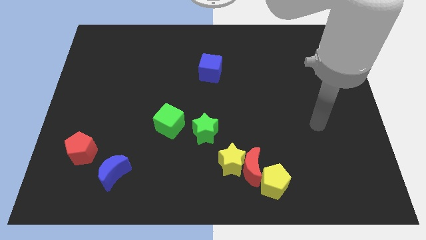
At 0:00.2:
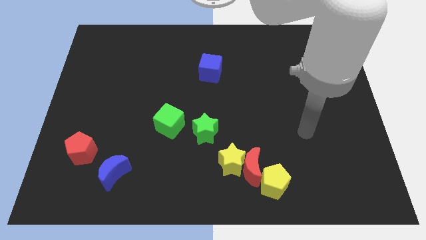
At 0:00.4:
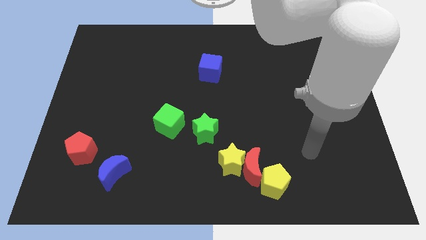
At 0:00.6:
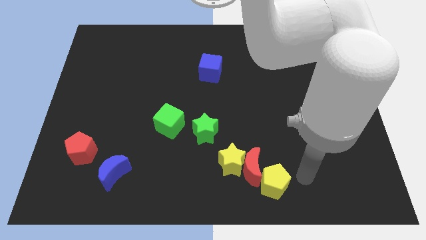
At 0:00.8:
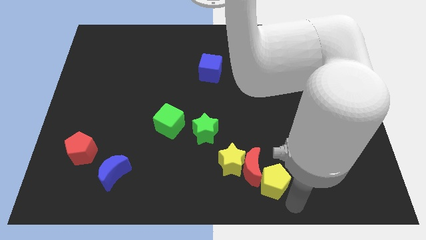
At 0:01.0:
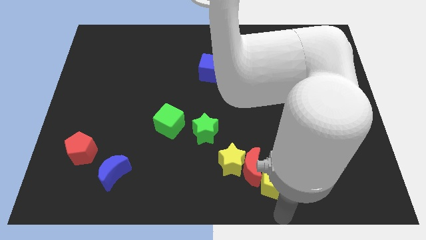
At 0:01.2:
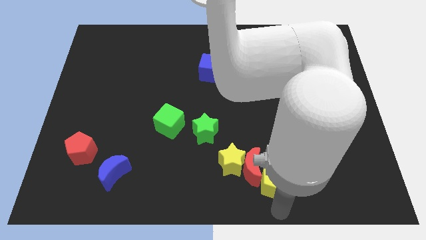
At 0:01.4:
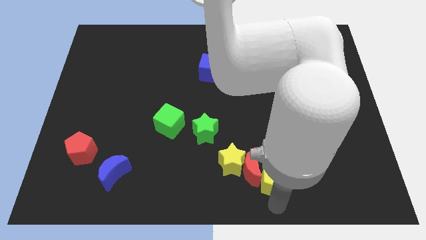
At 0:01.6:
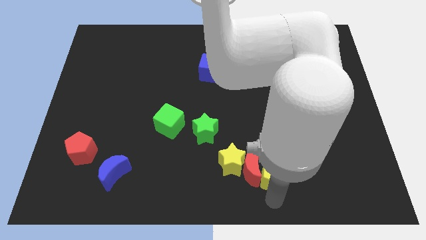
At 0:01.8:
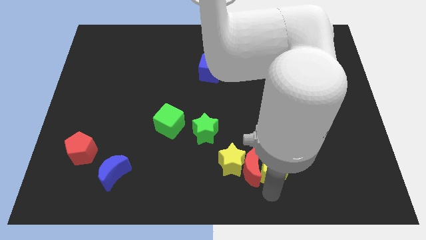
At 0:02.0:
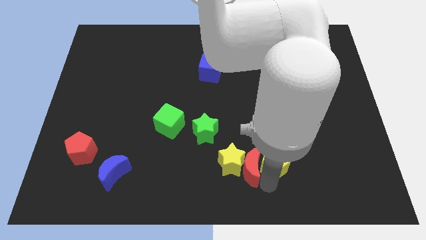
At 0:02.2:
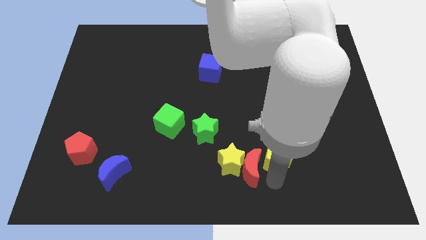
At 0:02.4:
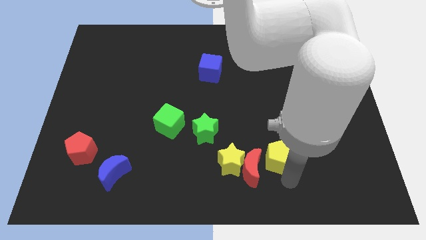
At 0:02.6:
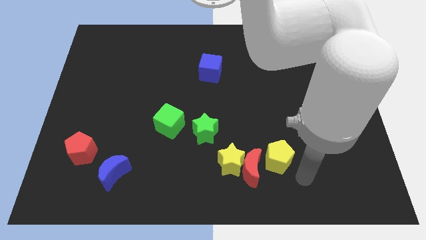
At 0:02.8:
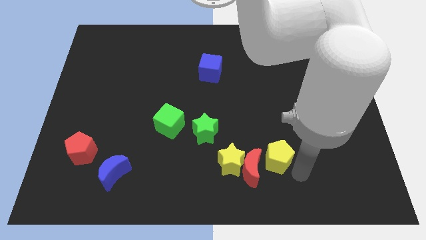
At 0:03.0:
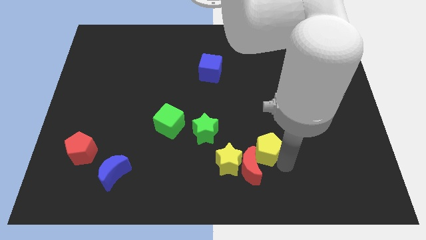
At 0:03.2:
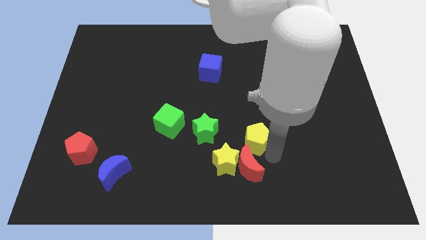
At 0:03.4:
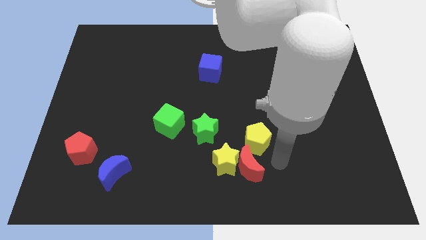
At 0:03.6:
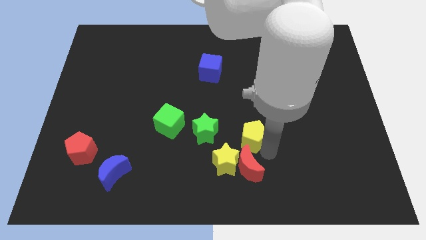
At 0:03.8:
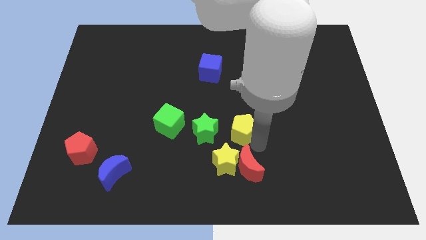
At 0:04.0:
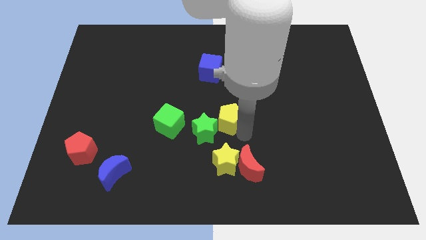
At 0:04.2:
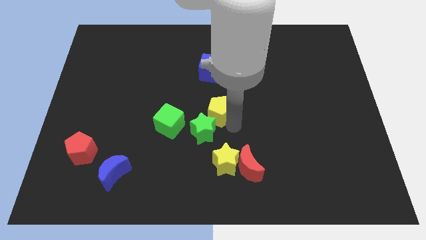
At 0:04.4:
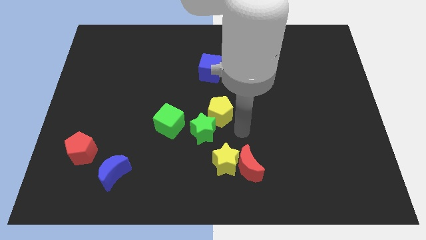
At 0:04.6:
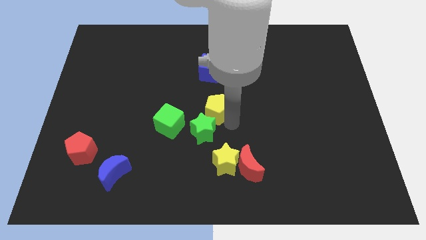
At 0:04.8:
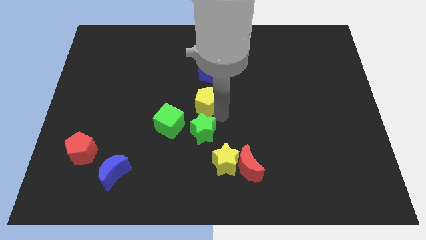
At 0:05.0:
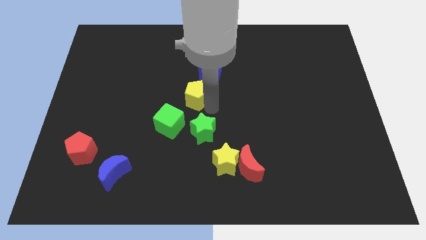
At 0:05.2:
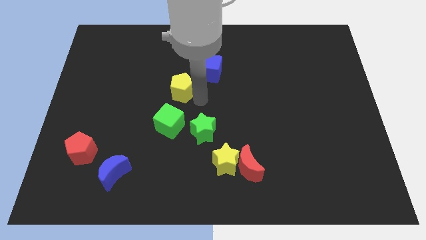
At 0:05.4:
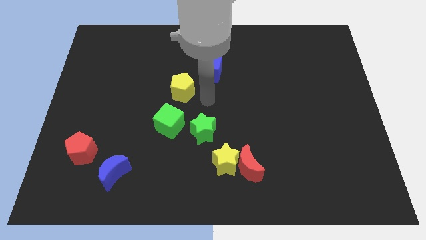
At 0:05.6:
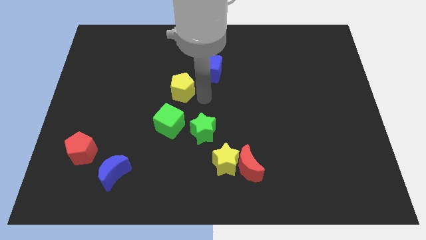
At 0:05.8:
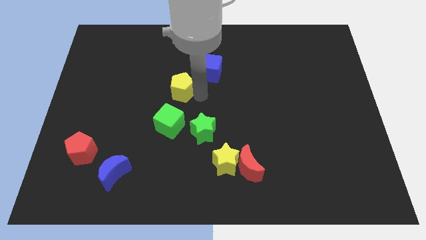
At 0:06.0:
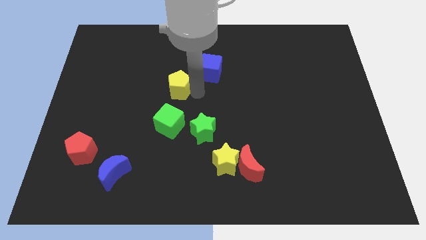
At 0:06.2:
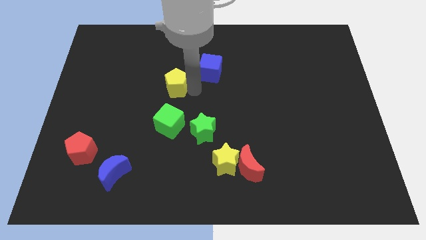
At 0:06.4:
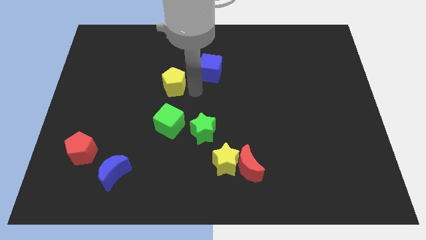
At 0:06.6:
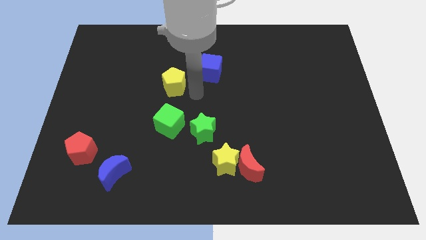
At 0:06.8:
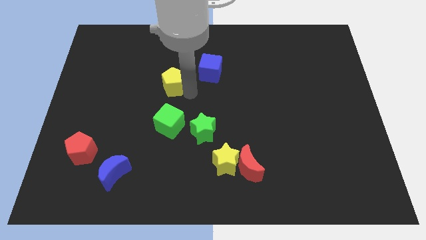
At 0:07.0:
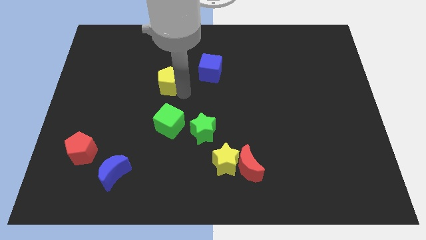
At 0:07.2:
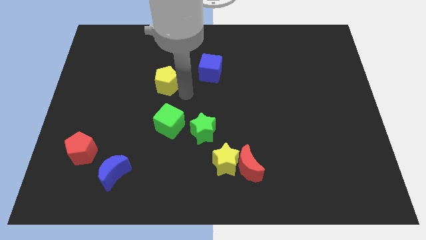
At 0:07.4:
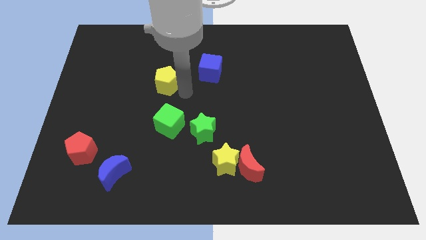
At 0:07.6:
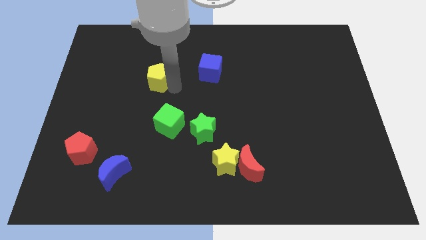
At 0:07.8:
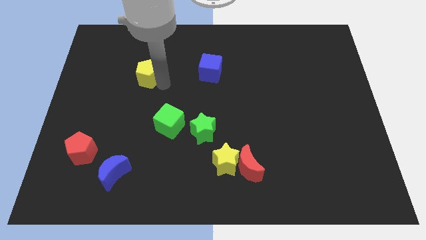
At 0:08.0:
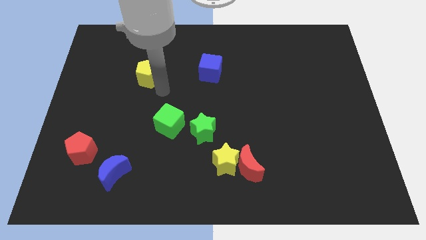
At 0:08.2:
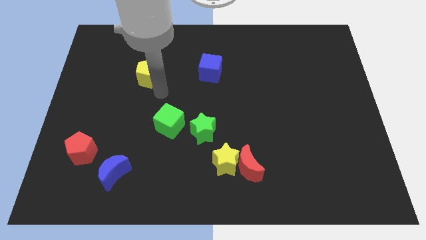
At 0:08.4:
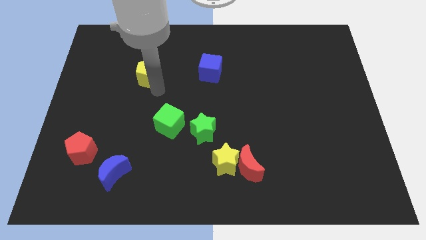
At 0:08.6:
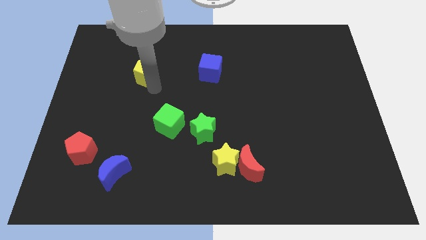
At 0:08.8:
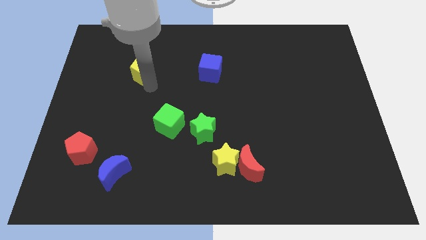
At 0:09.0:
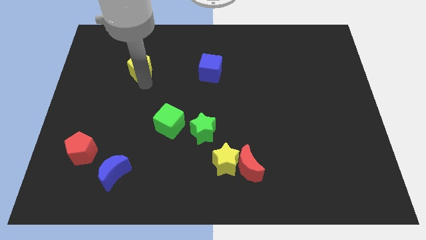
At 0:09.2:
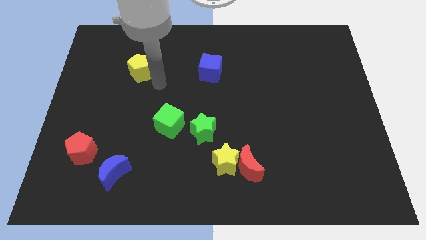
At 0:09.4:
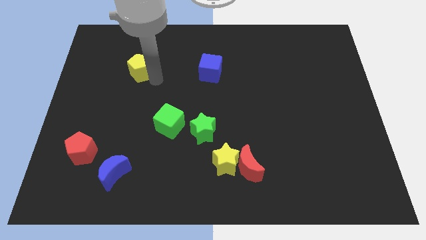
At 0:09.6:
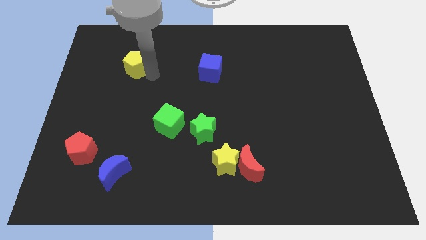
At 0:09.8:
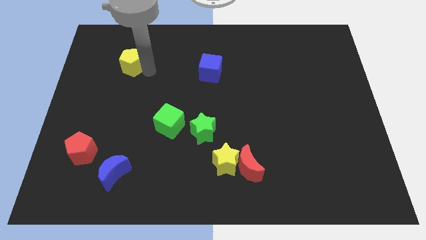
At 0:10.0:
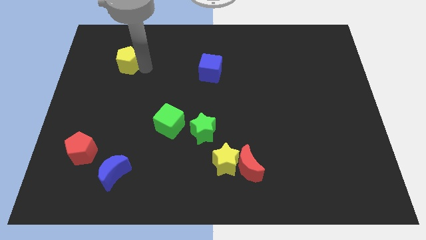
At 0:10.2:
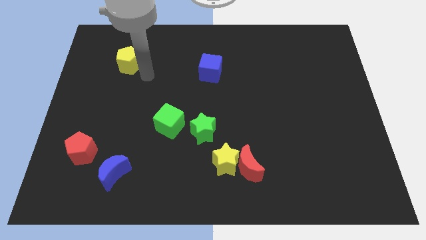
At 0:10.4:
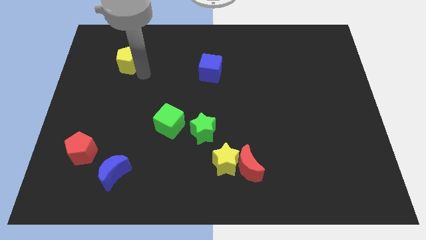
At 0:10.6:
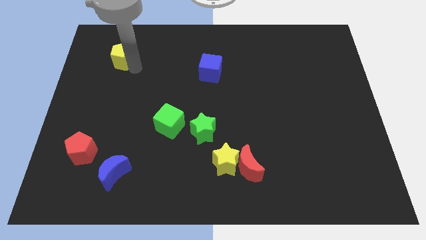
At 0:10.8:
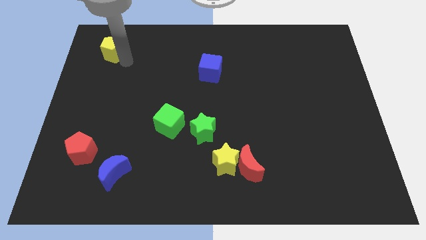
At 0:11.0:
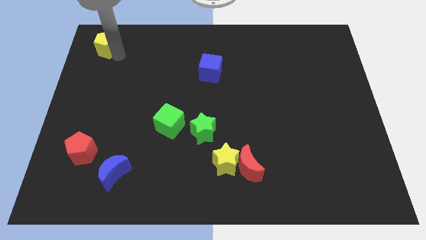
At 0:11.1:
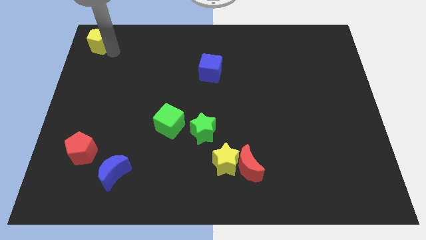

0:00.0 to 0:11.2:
put the yellow pentagon to the top left

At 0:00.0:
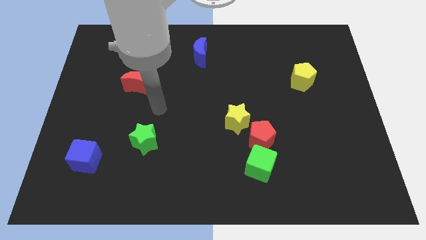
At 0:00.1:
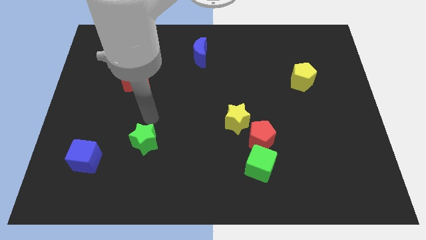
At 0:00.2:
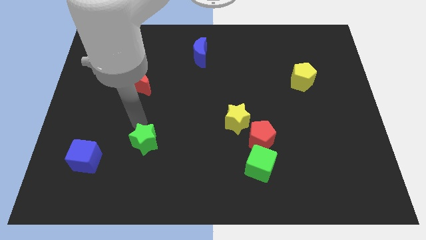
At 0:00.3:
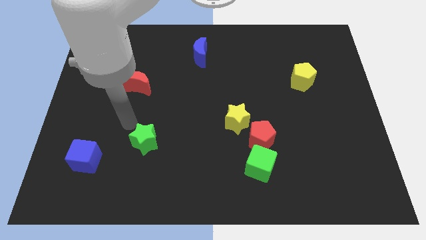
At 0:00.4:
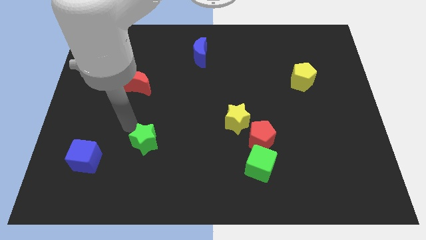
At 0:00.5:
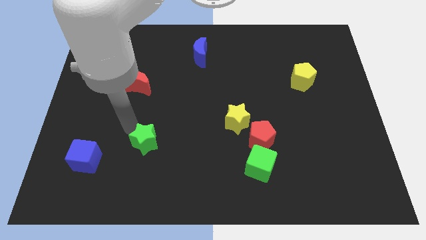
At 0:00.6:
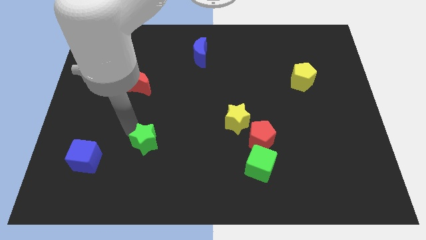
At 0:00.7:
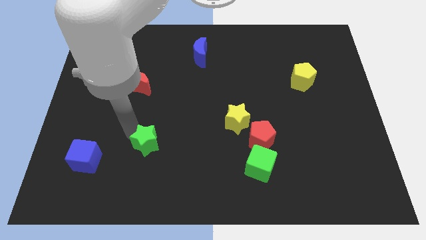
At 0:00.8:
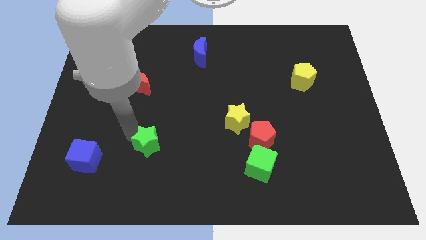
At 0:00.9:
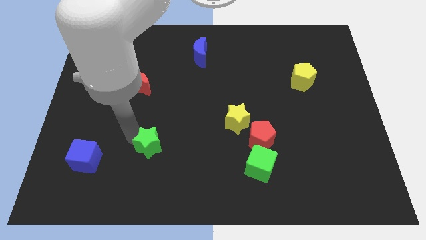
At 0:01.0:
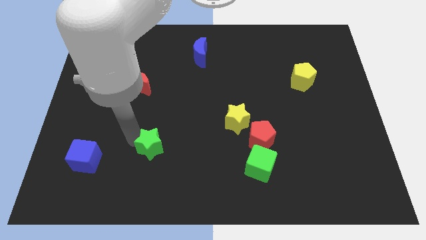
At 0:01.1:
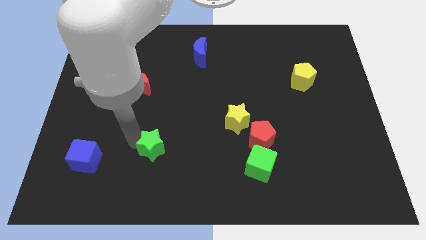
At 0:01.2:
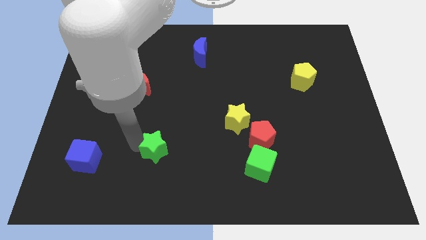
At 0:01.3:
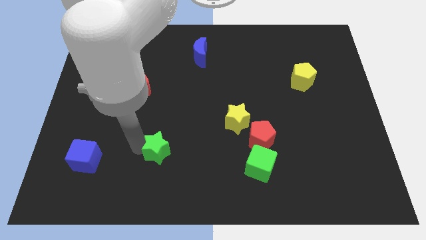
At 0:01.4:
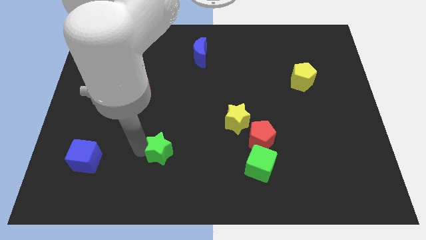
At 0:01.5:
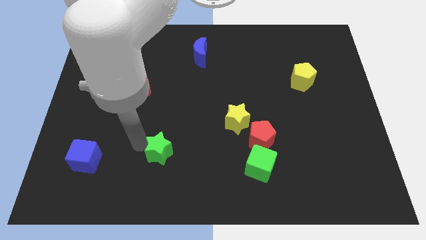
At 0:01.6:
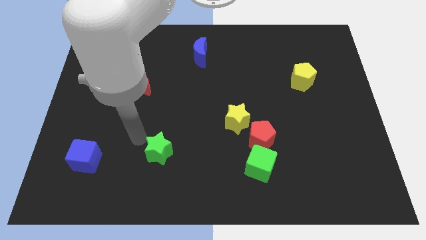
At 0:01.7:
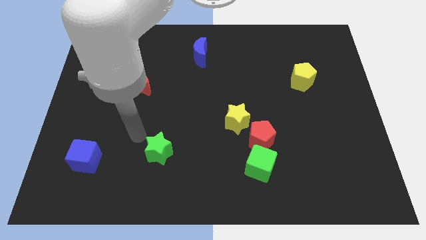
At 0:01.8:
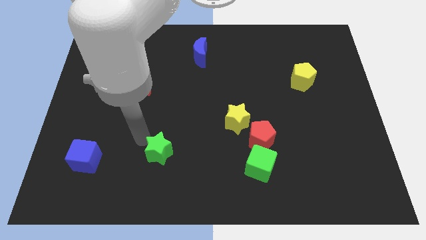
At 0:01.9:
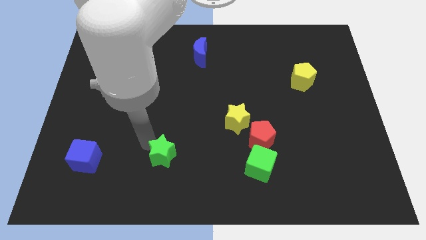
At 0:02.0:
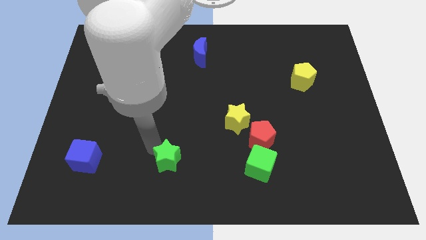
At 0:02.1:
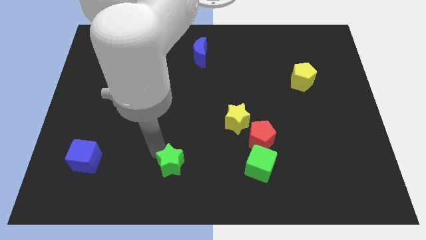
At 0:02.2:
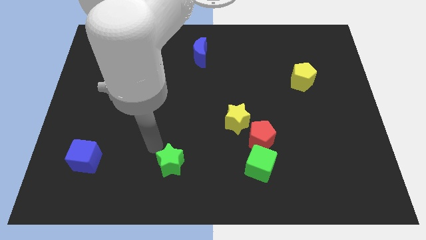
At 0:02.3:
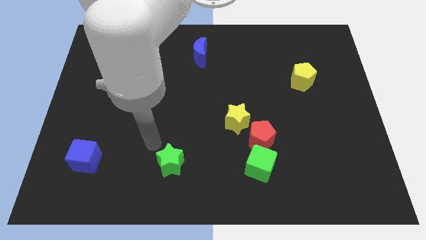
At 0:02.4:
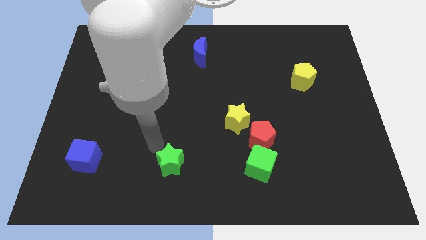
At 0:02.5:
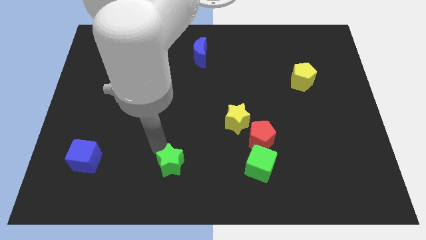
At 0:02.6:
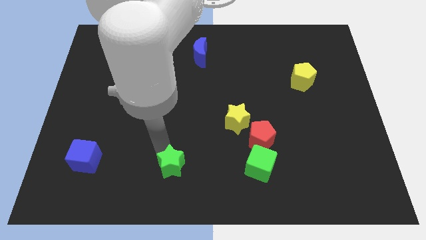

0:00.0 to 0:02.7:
slide the green star to the bottom
